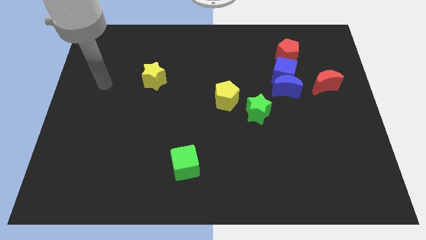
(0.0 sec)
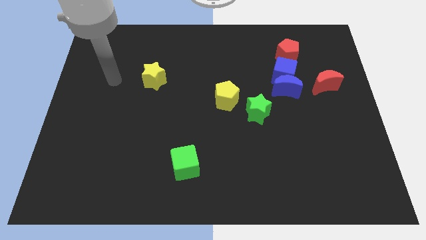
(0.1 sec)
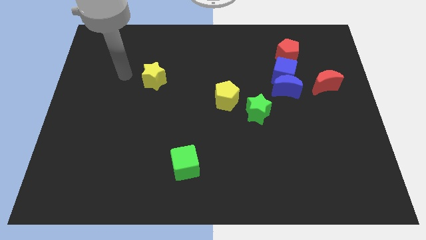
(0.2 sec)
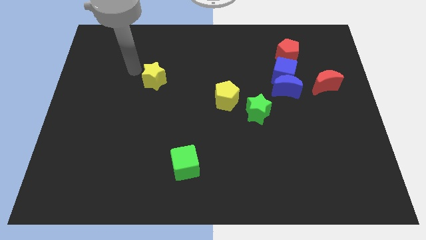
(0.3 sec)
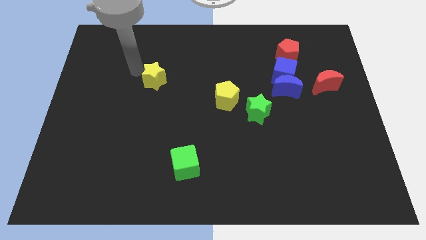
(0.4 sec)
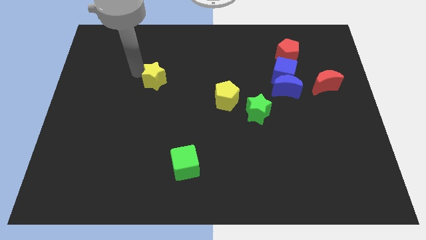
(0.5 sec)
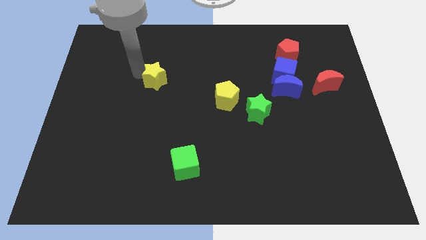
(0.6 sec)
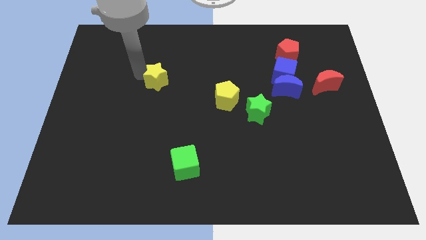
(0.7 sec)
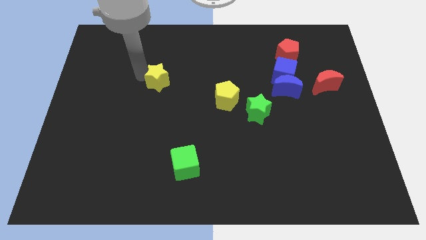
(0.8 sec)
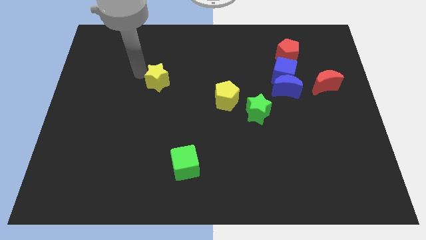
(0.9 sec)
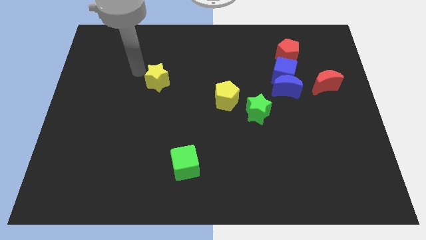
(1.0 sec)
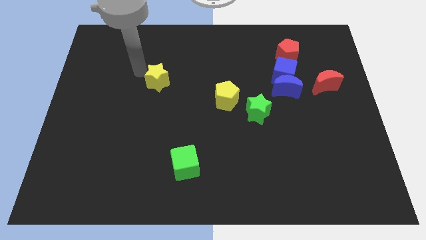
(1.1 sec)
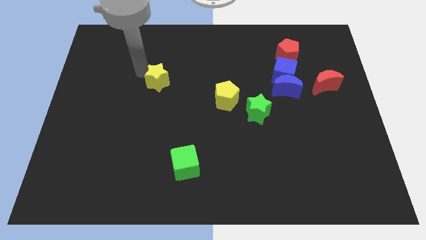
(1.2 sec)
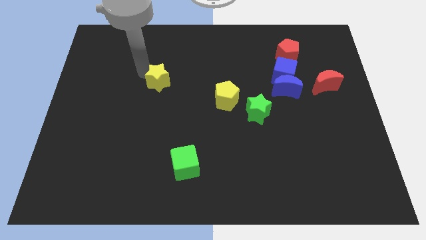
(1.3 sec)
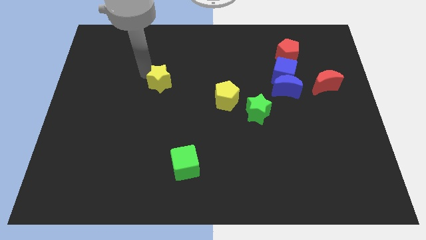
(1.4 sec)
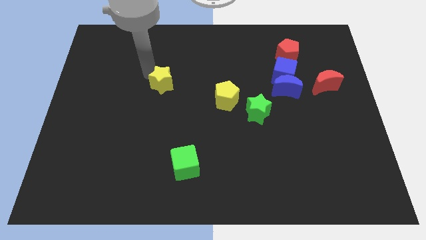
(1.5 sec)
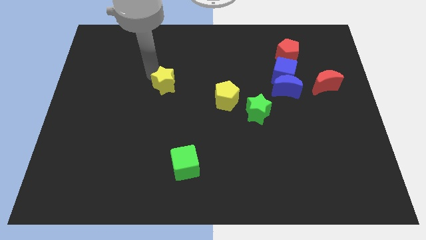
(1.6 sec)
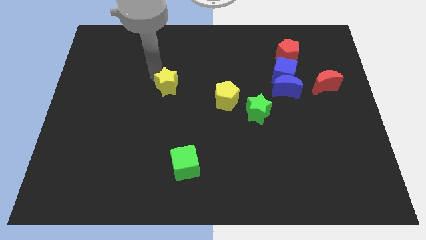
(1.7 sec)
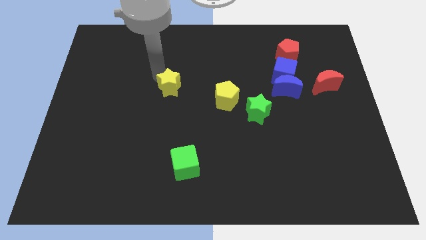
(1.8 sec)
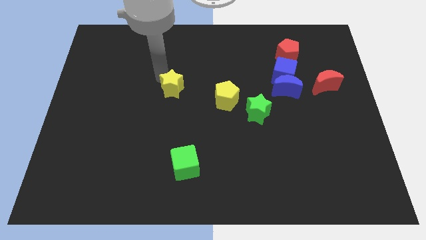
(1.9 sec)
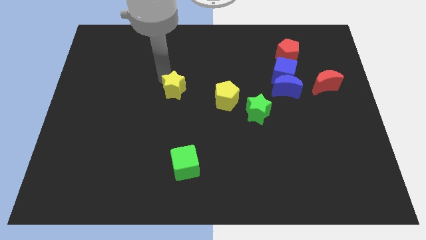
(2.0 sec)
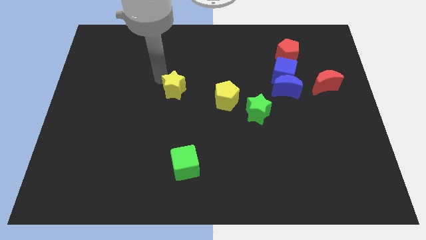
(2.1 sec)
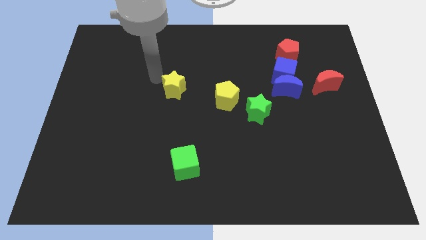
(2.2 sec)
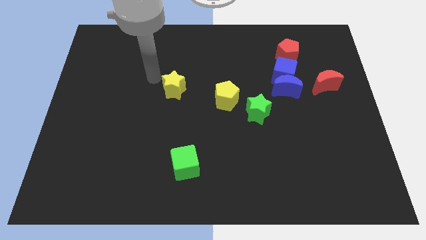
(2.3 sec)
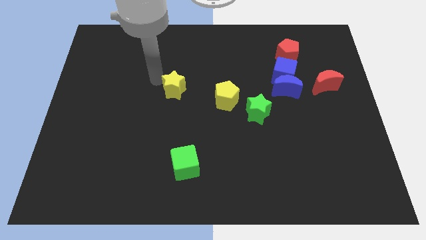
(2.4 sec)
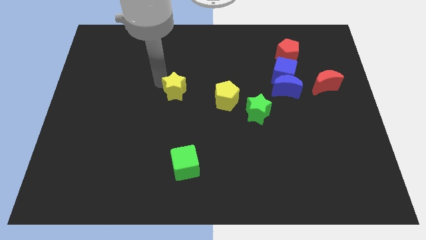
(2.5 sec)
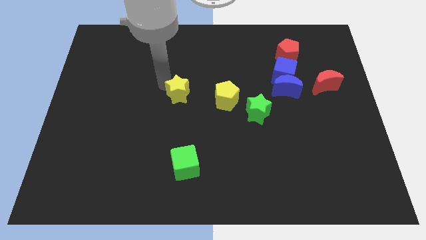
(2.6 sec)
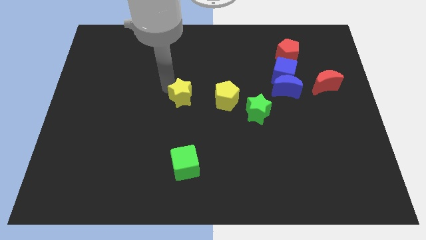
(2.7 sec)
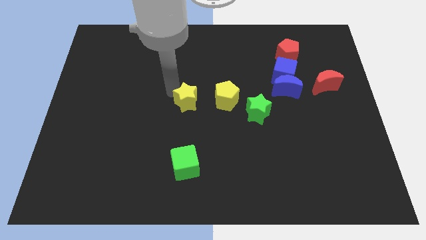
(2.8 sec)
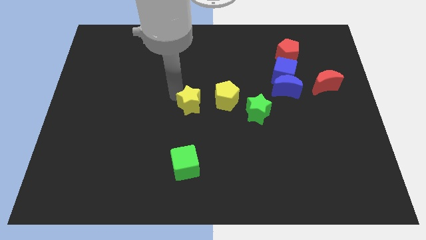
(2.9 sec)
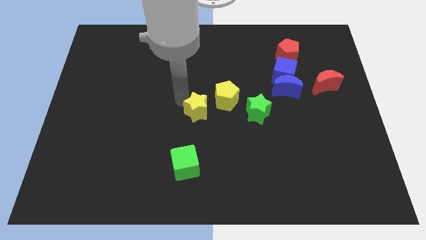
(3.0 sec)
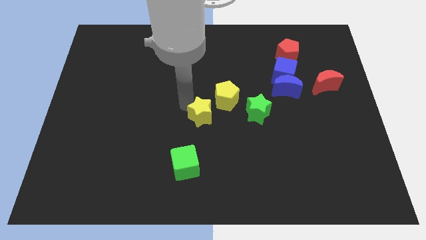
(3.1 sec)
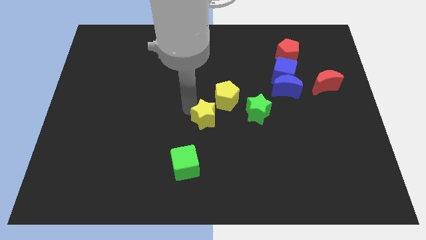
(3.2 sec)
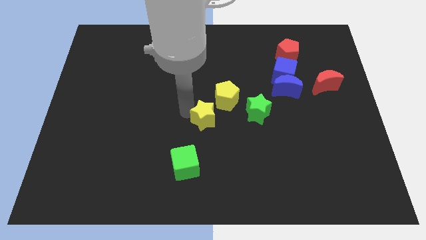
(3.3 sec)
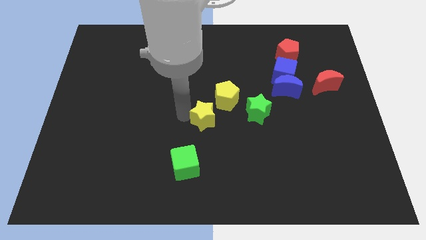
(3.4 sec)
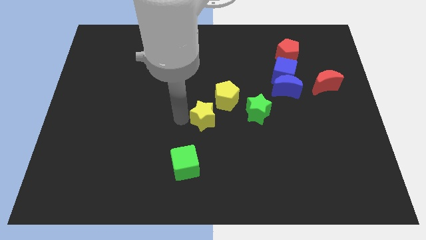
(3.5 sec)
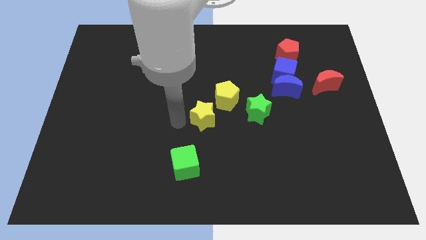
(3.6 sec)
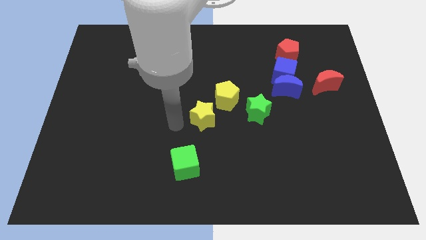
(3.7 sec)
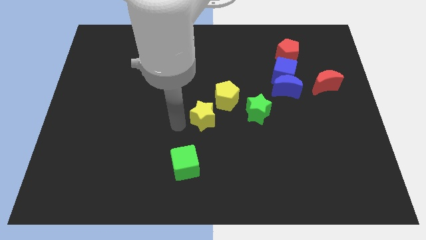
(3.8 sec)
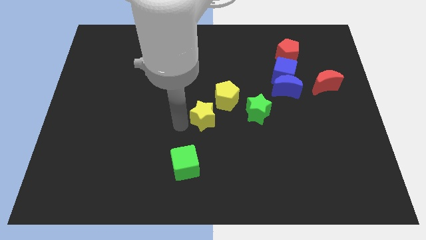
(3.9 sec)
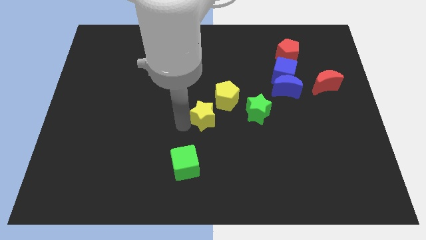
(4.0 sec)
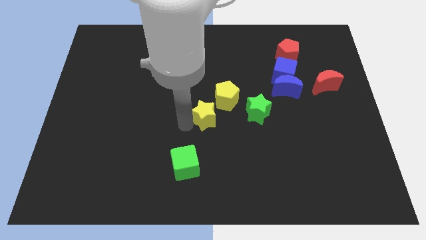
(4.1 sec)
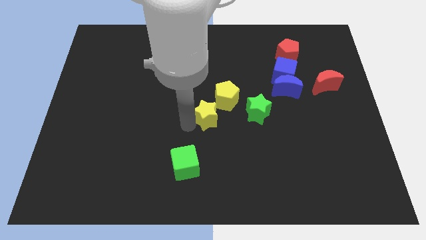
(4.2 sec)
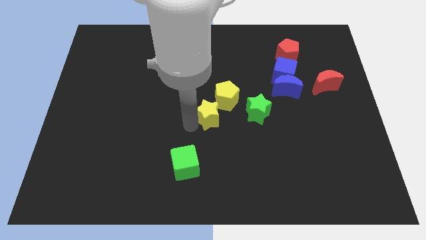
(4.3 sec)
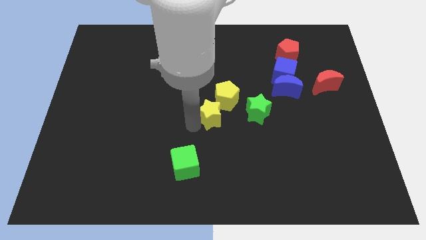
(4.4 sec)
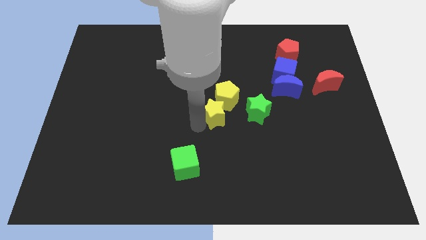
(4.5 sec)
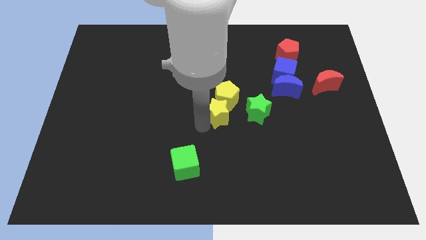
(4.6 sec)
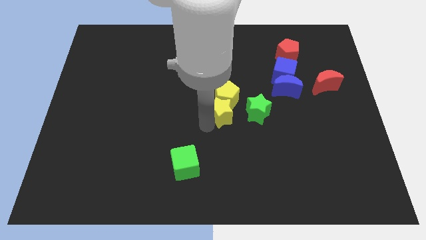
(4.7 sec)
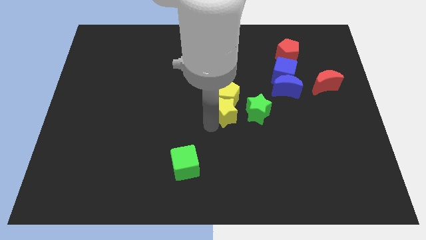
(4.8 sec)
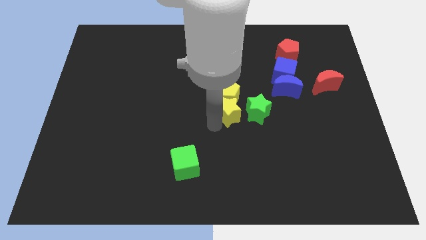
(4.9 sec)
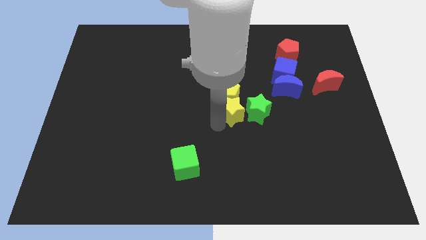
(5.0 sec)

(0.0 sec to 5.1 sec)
push the yellow star towards the green star

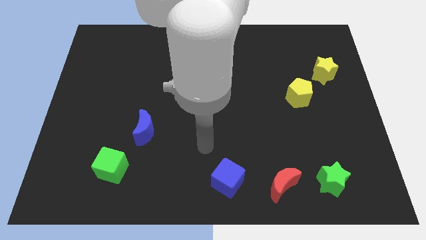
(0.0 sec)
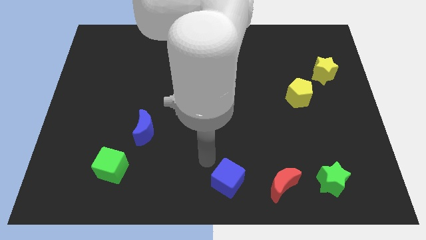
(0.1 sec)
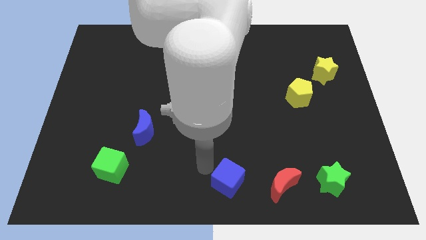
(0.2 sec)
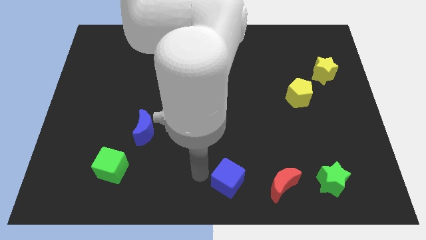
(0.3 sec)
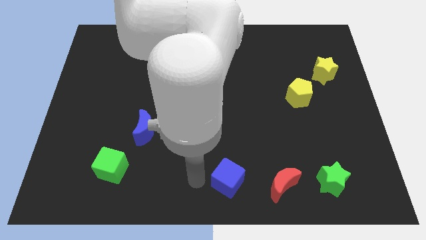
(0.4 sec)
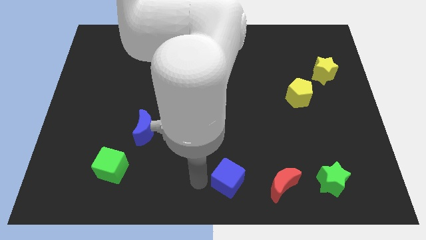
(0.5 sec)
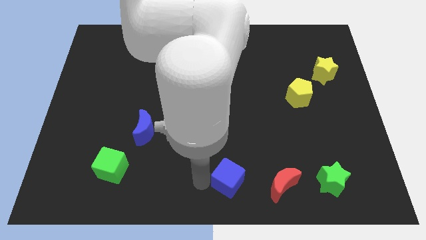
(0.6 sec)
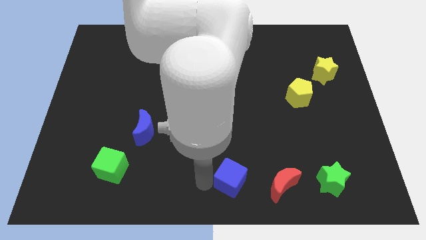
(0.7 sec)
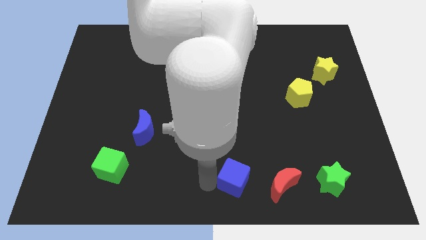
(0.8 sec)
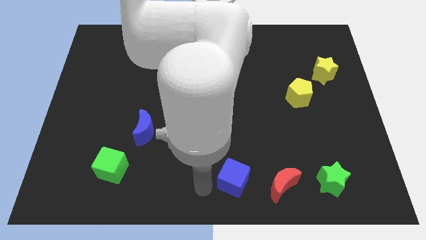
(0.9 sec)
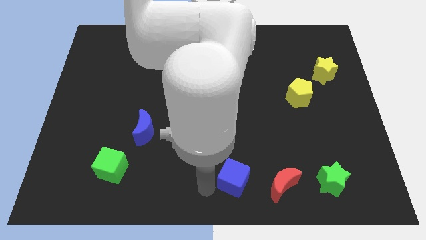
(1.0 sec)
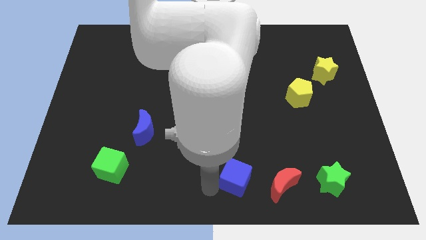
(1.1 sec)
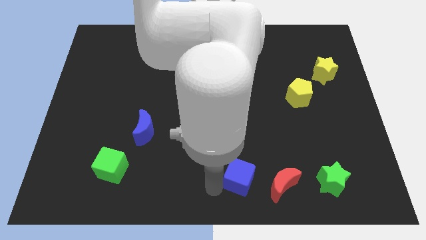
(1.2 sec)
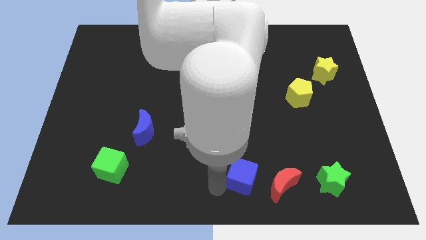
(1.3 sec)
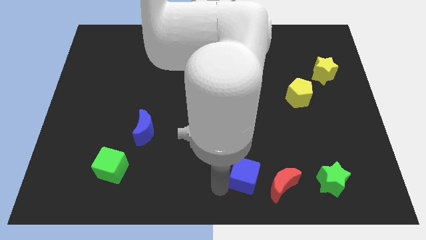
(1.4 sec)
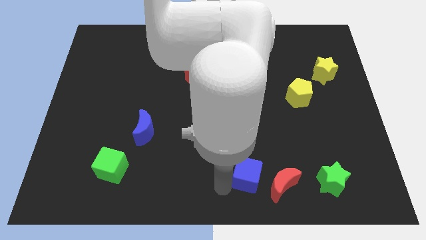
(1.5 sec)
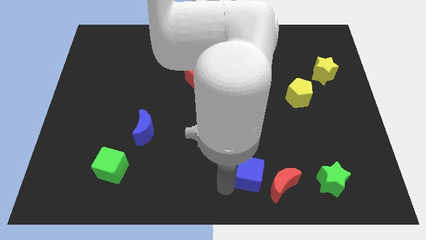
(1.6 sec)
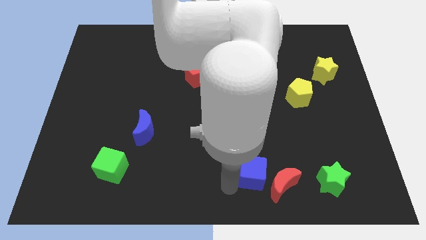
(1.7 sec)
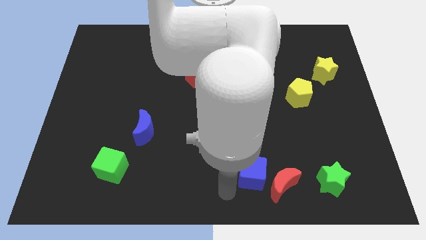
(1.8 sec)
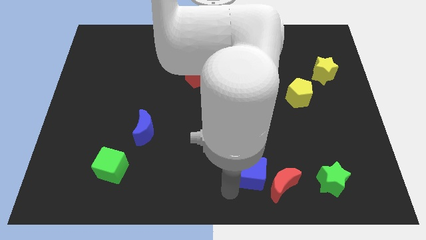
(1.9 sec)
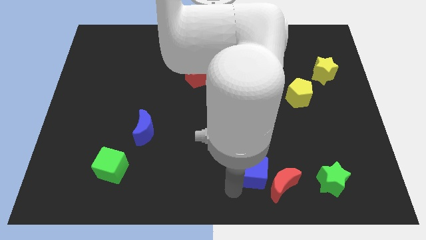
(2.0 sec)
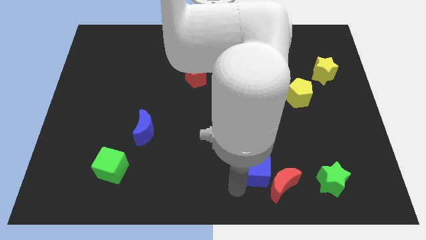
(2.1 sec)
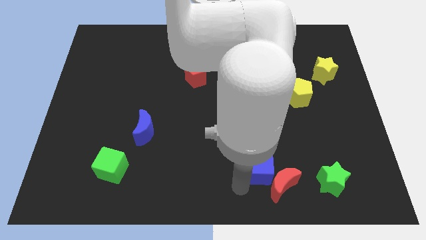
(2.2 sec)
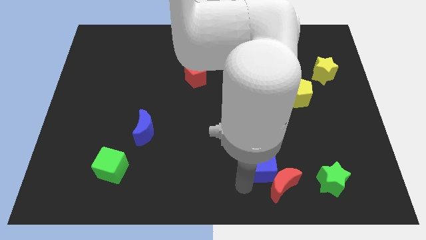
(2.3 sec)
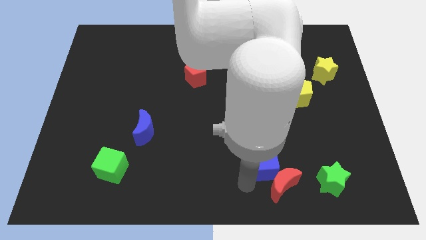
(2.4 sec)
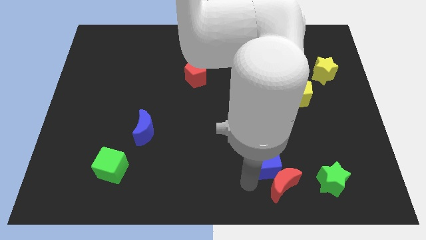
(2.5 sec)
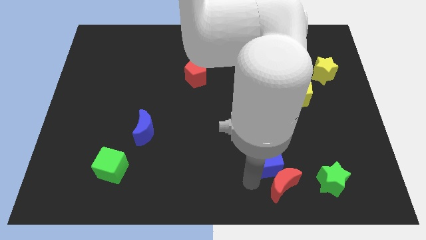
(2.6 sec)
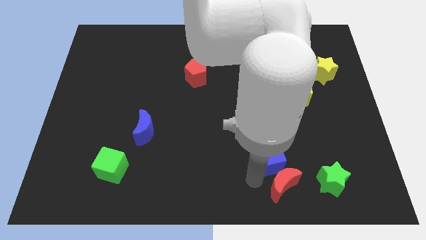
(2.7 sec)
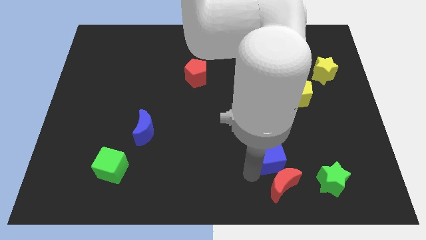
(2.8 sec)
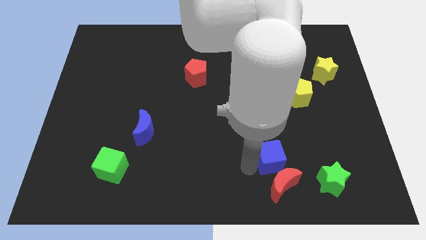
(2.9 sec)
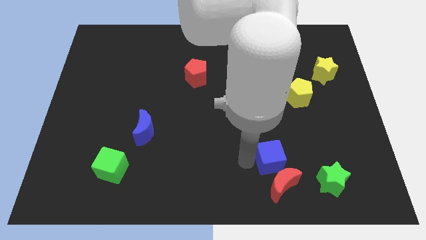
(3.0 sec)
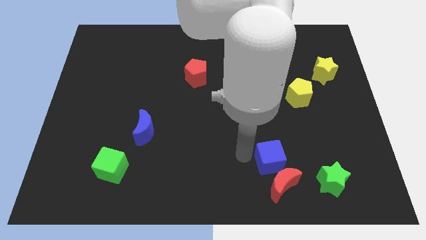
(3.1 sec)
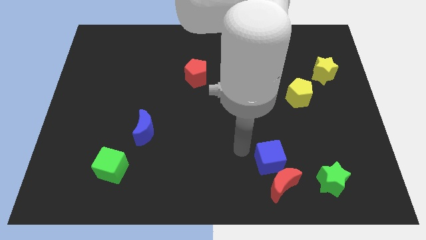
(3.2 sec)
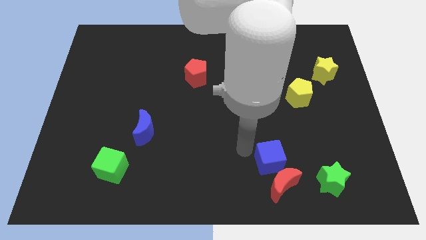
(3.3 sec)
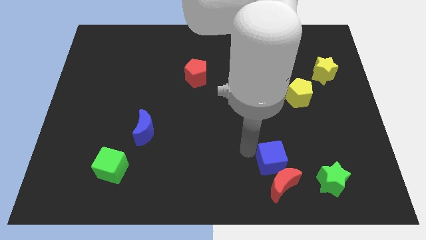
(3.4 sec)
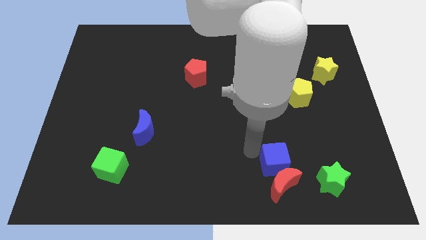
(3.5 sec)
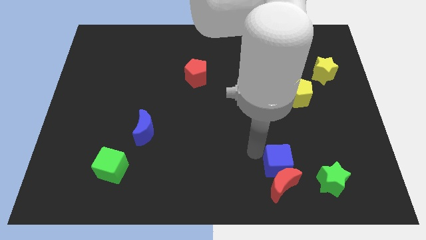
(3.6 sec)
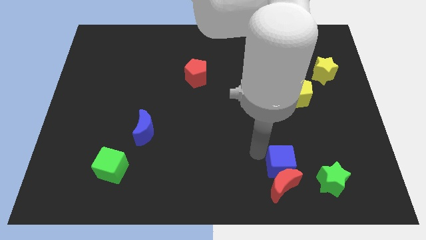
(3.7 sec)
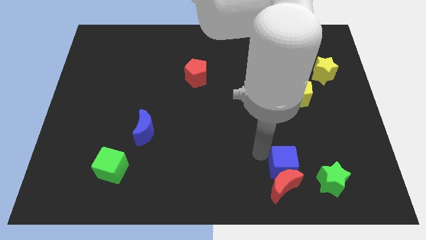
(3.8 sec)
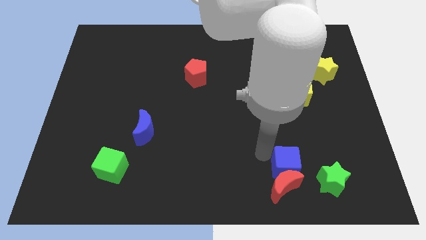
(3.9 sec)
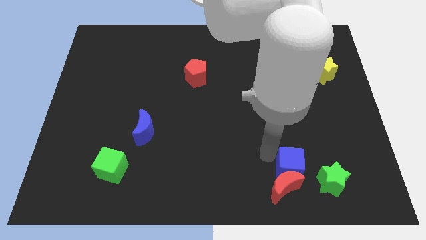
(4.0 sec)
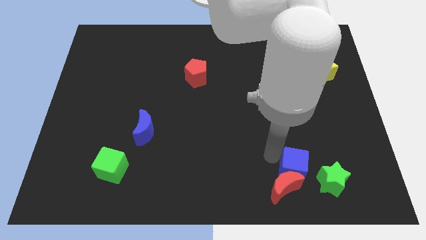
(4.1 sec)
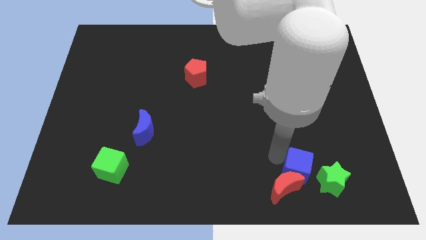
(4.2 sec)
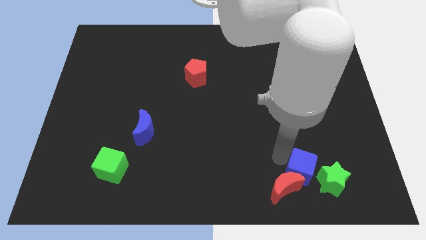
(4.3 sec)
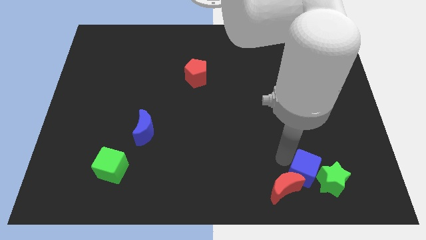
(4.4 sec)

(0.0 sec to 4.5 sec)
put the blue cube close to the green star
